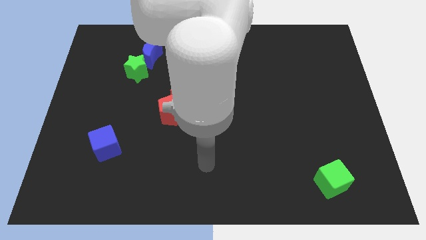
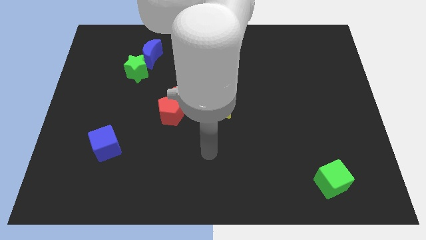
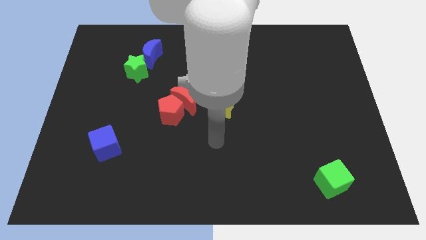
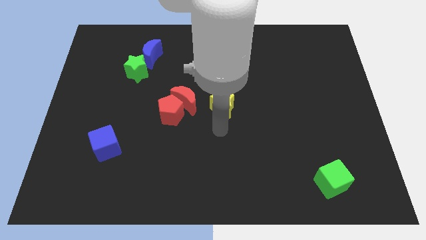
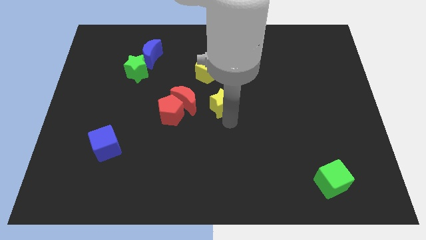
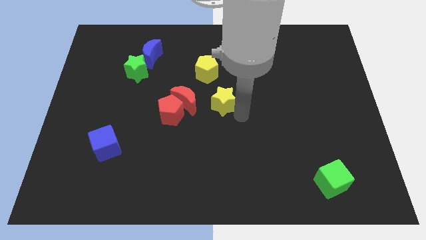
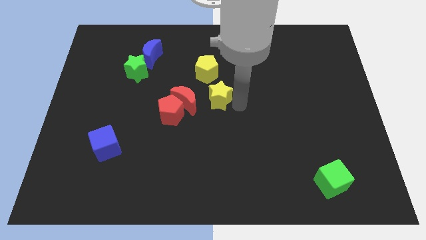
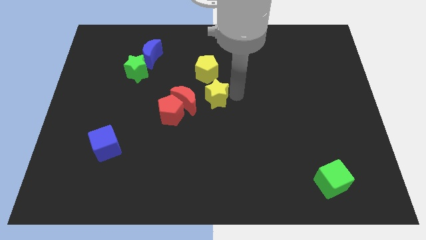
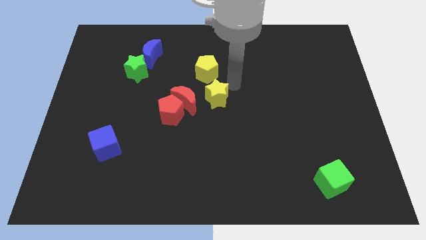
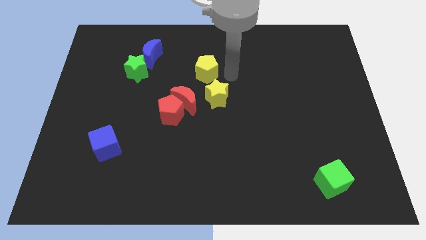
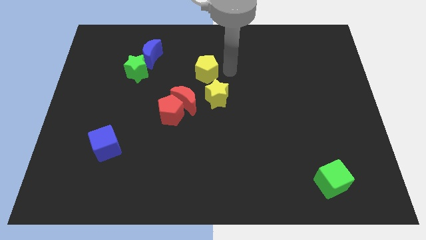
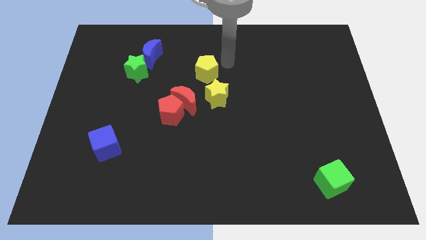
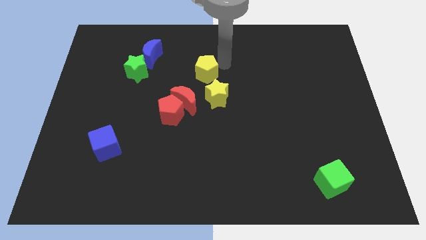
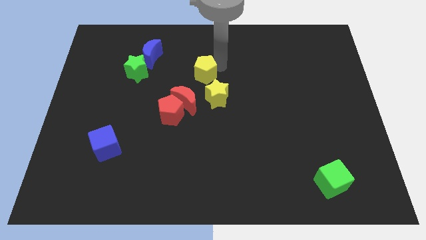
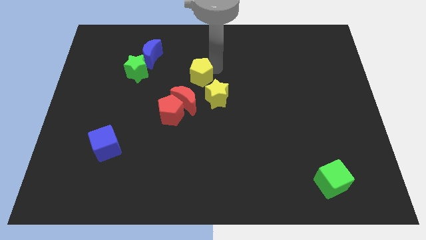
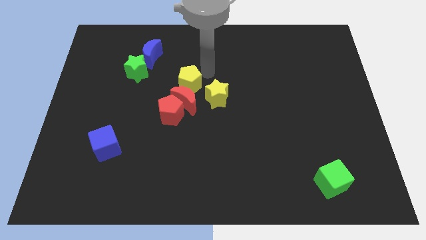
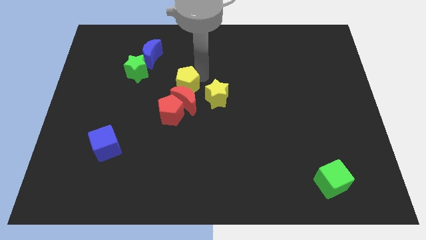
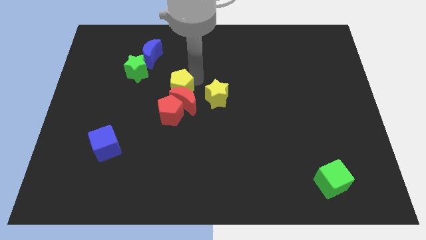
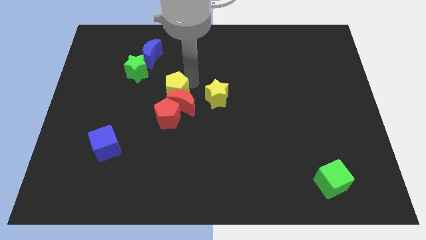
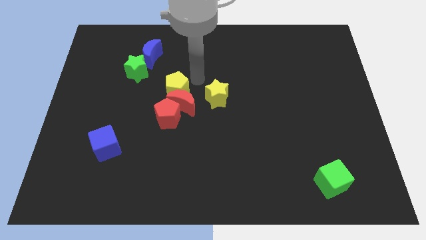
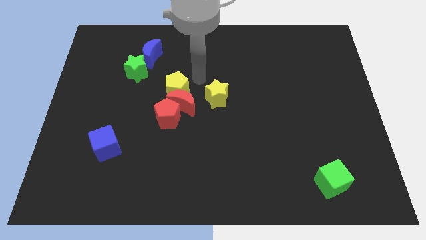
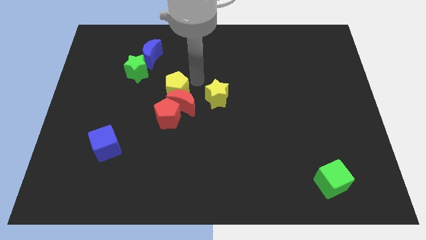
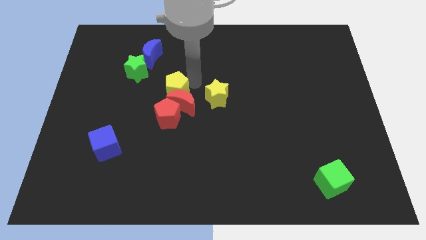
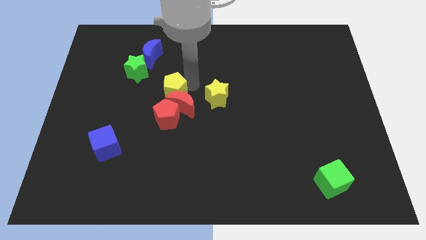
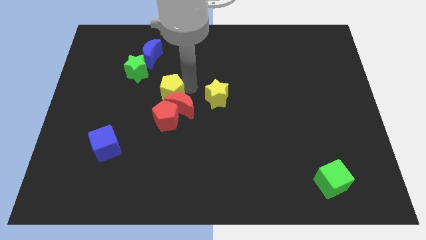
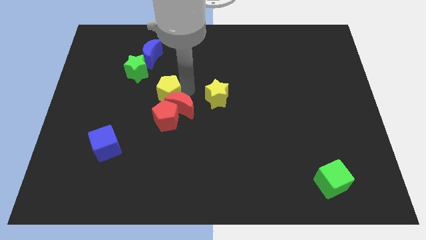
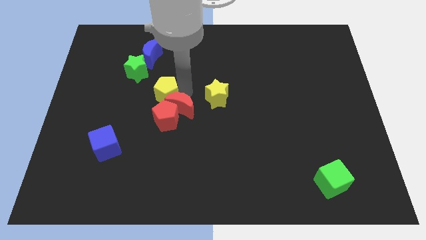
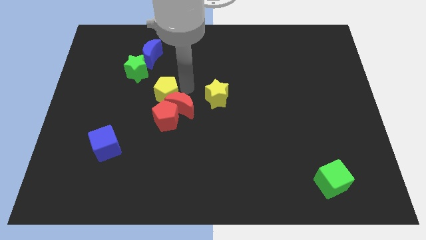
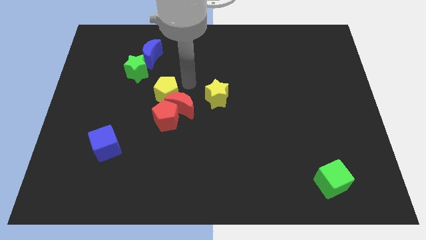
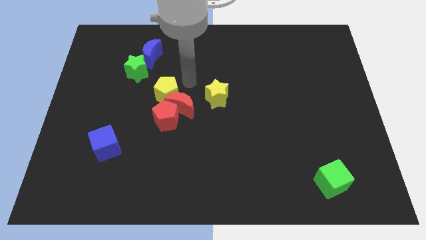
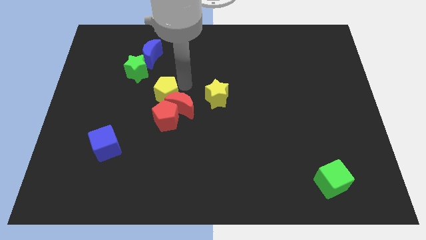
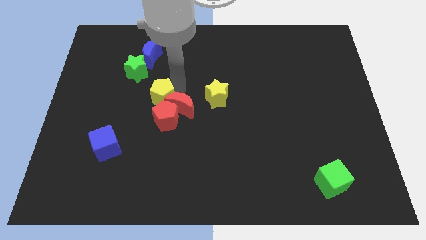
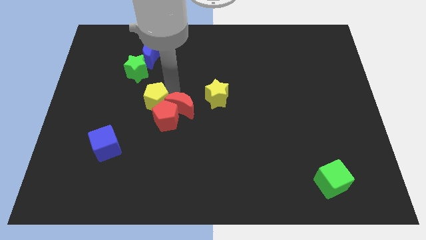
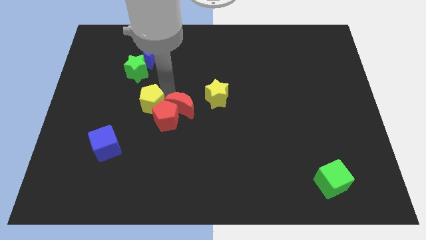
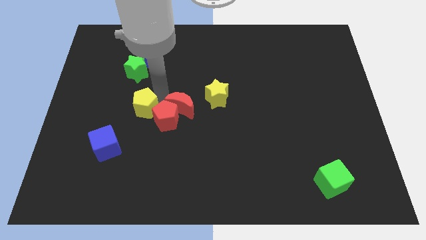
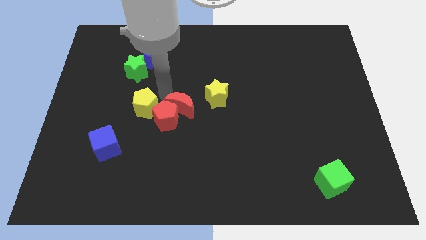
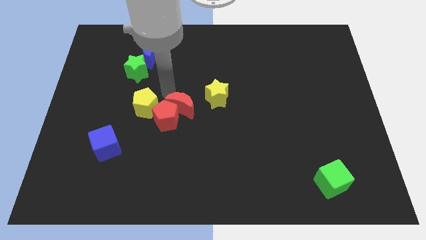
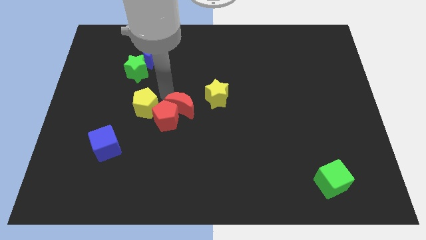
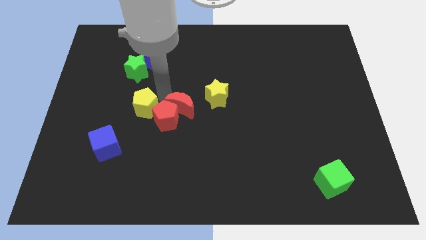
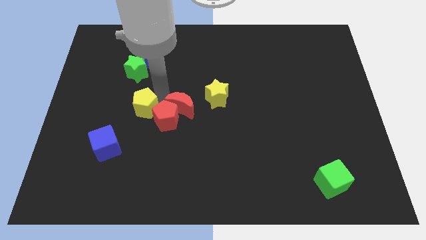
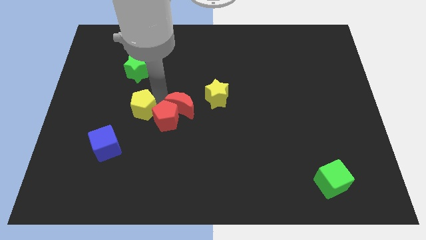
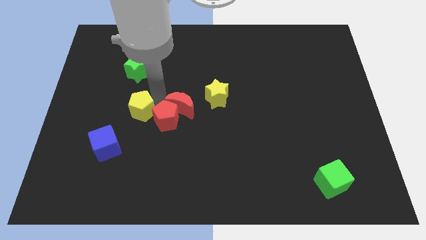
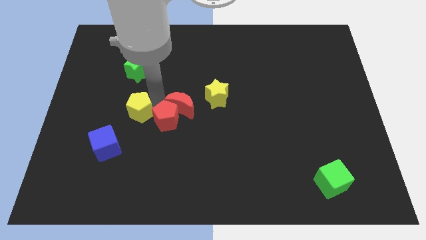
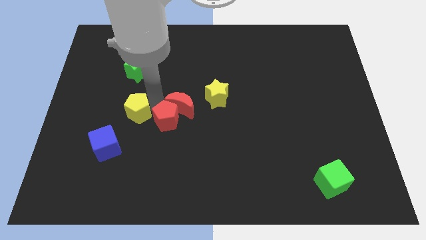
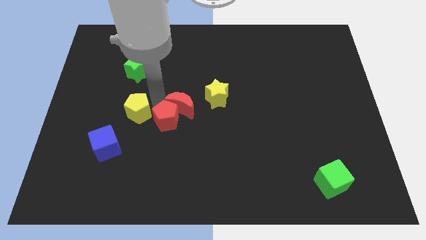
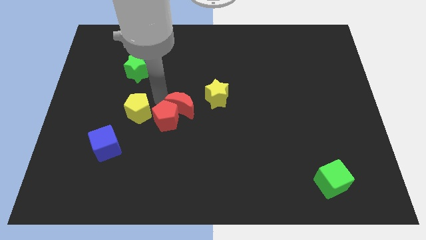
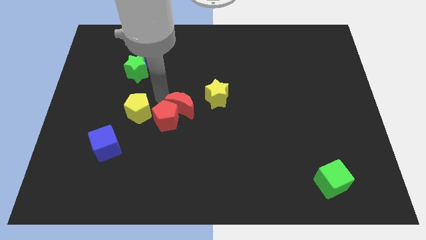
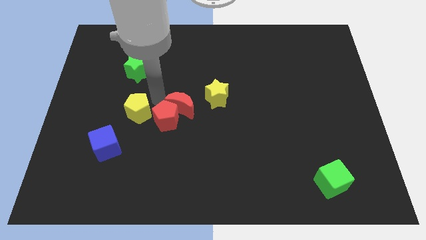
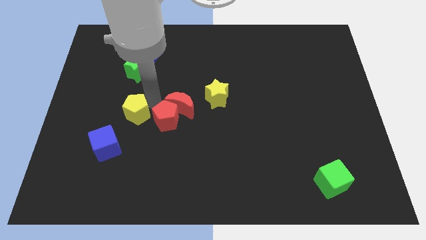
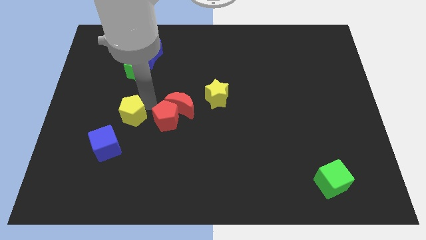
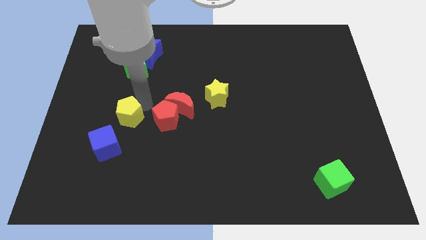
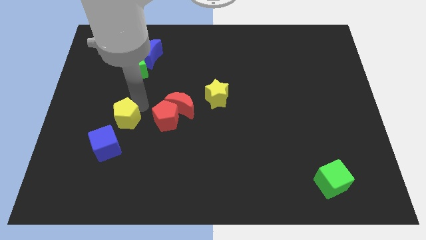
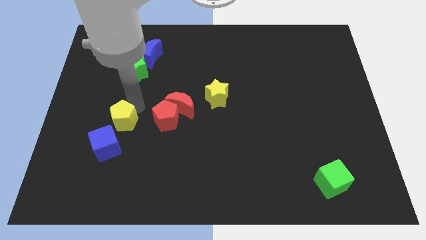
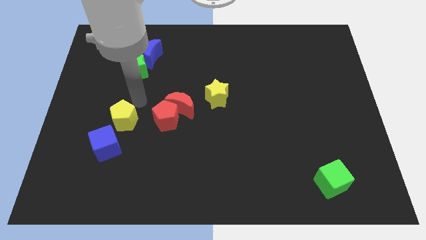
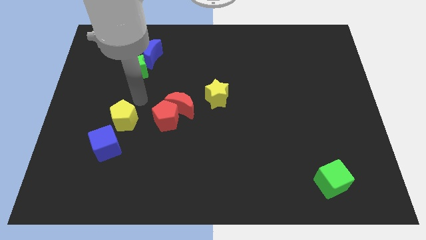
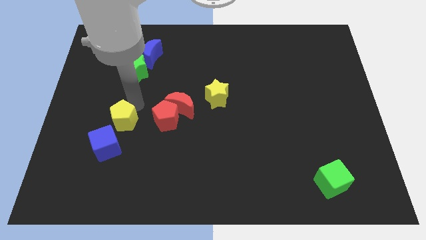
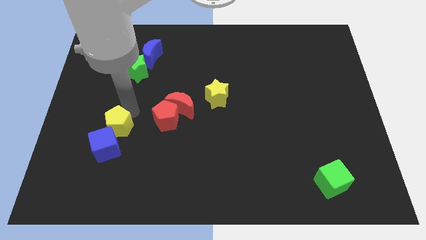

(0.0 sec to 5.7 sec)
slide the yellow pentagon close to the blue cube

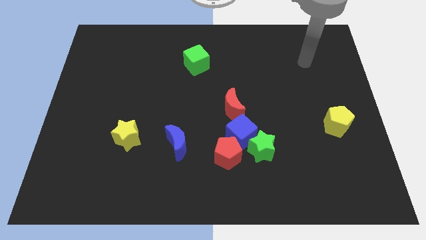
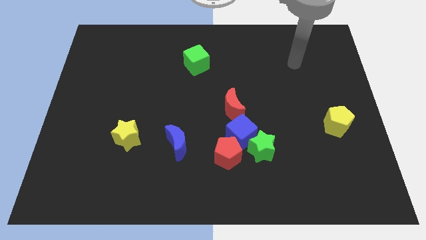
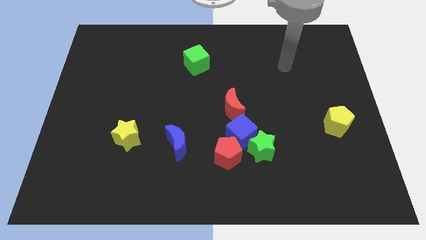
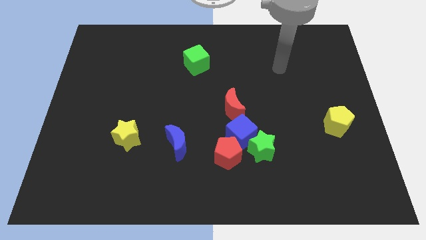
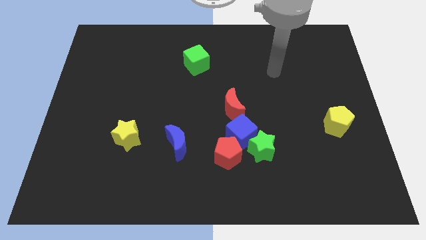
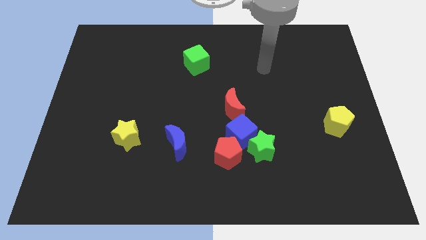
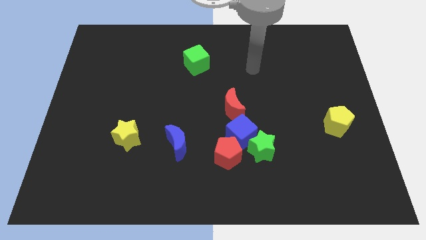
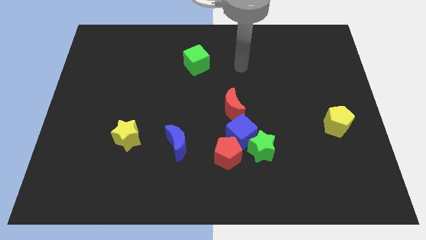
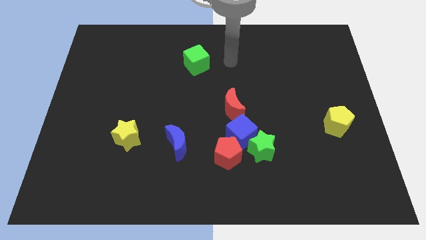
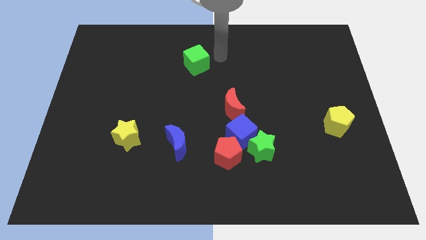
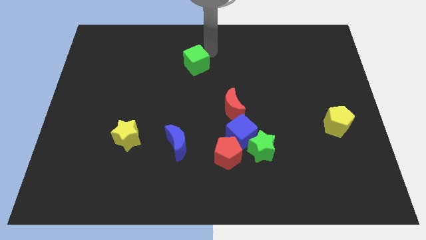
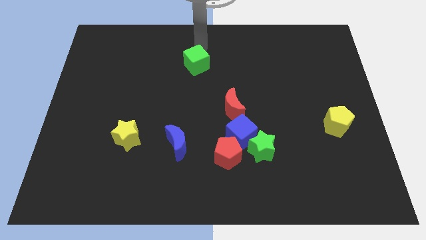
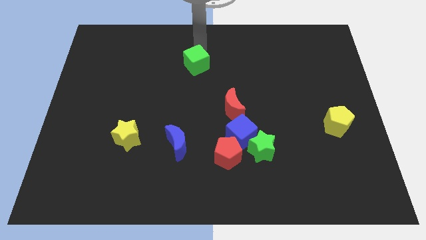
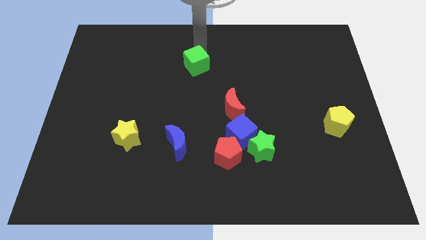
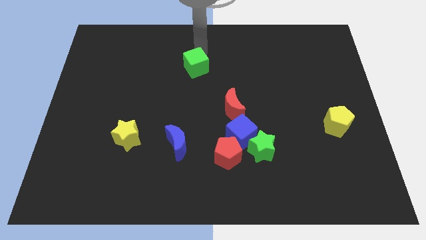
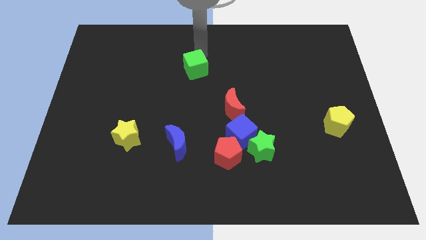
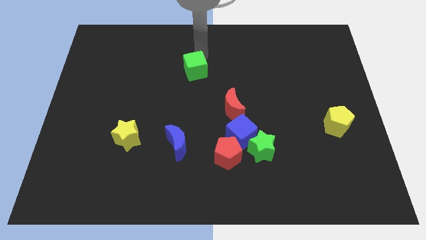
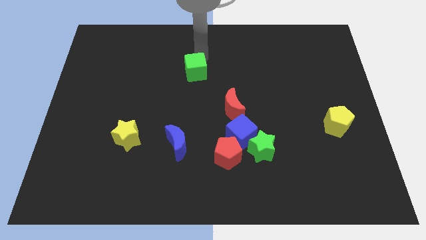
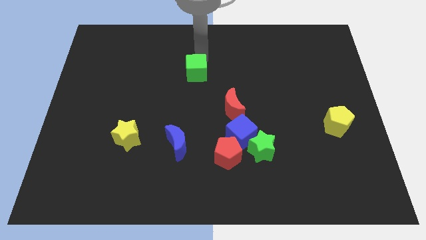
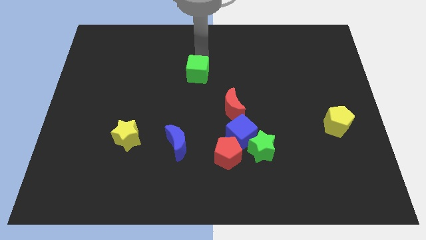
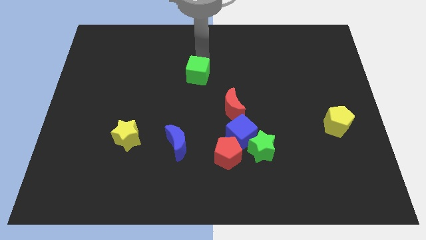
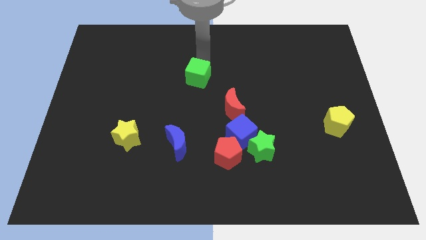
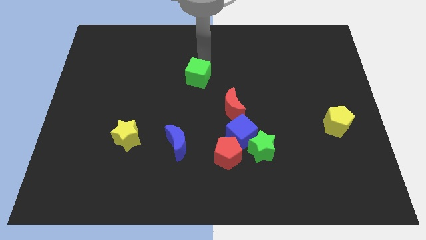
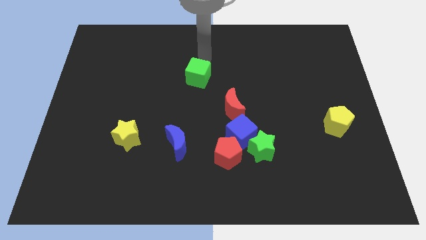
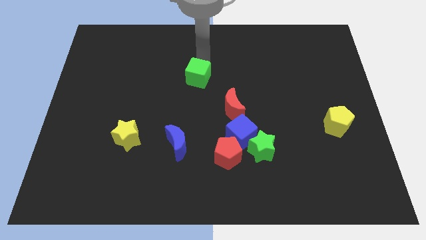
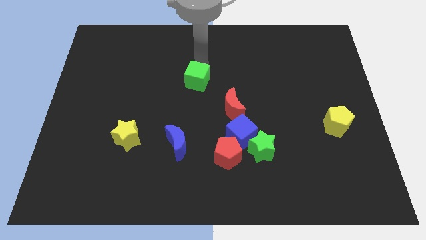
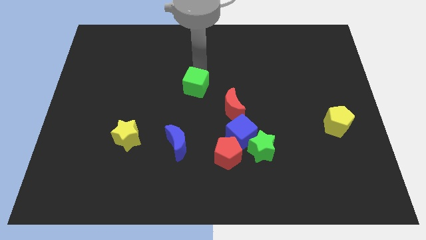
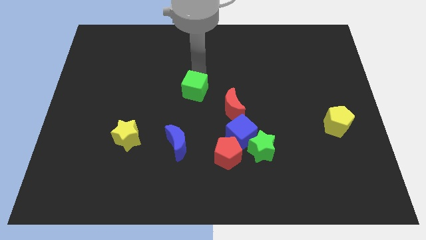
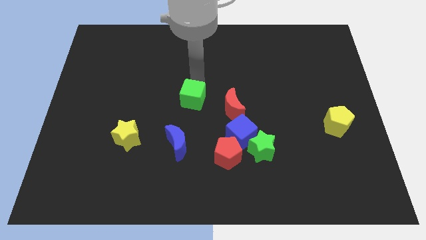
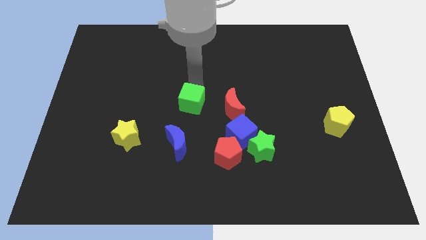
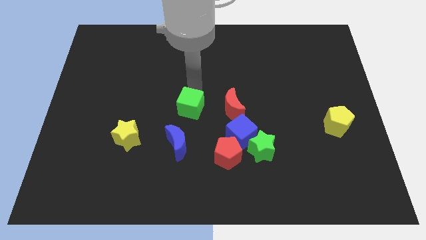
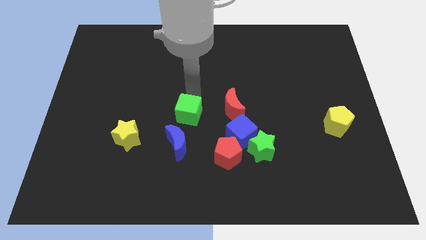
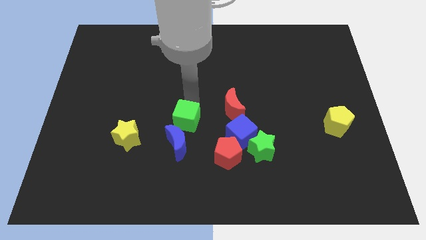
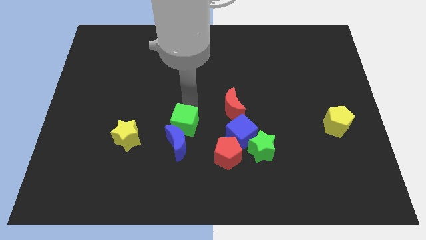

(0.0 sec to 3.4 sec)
slide the green cube next to the blue moon
